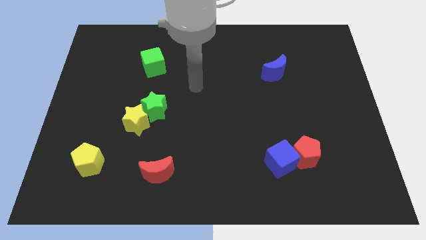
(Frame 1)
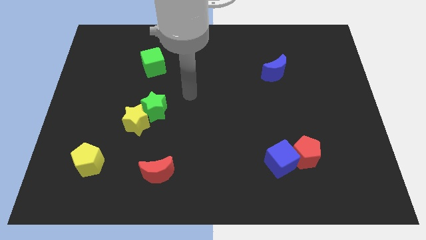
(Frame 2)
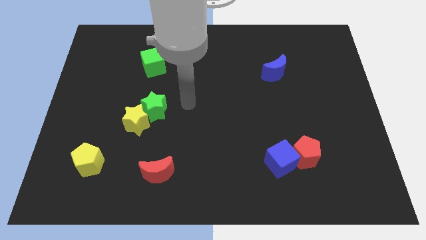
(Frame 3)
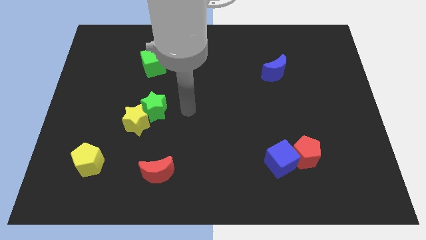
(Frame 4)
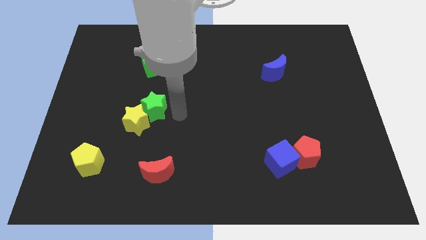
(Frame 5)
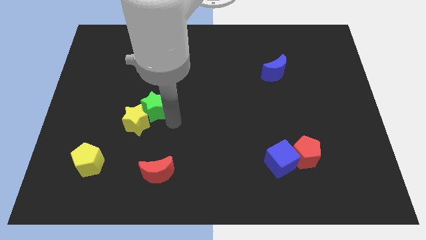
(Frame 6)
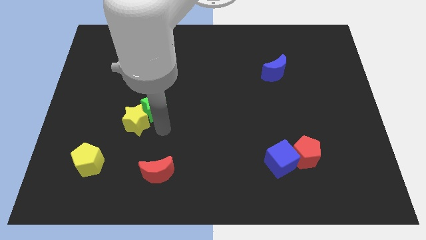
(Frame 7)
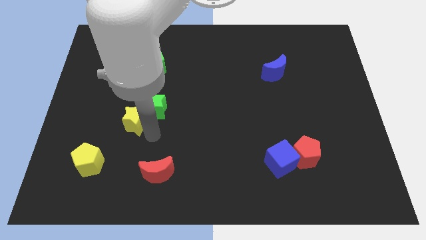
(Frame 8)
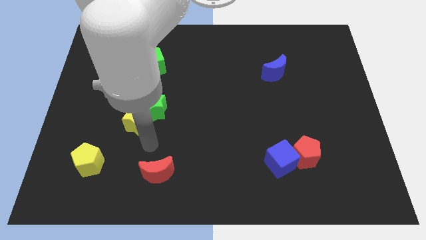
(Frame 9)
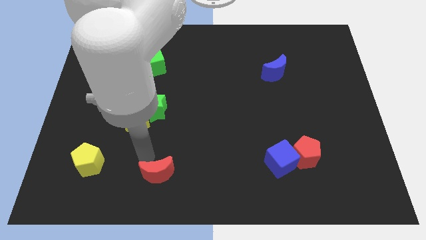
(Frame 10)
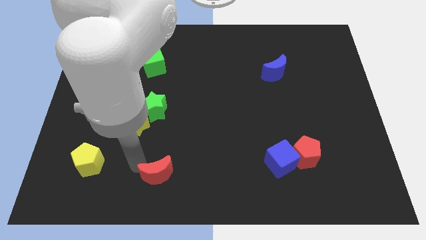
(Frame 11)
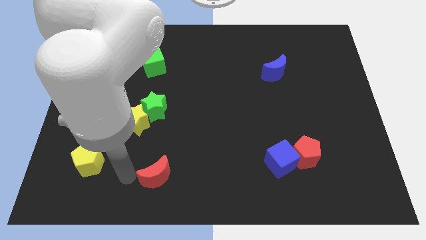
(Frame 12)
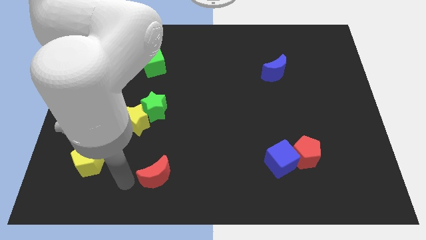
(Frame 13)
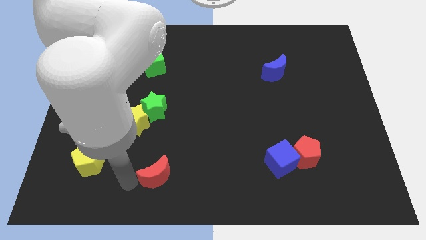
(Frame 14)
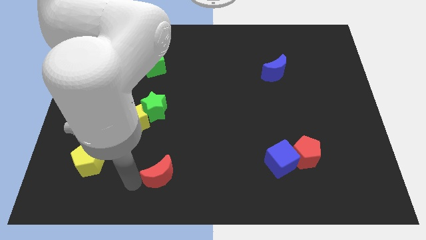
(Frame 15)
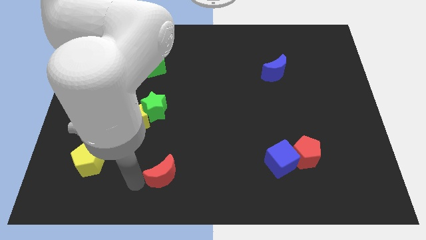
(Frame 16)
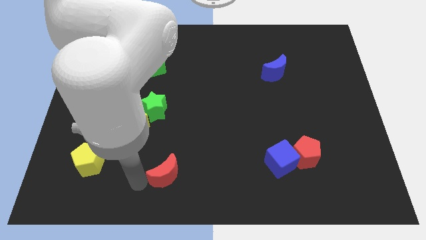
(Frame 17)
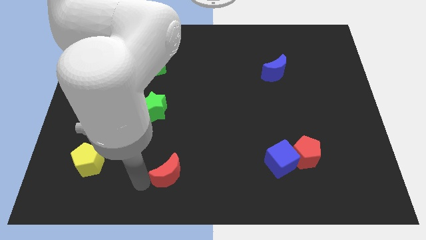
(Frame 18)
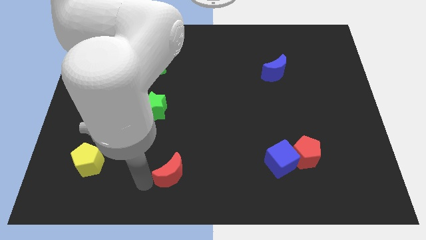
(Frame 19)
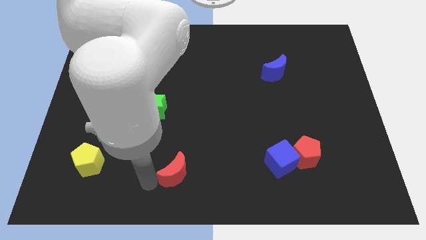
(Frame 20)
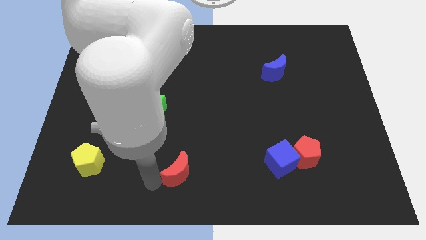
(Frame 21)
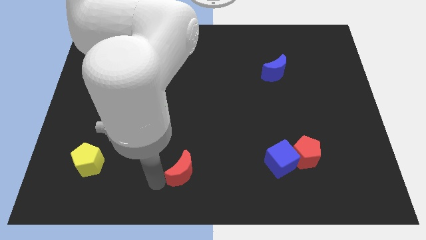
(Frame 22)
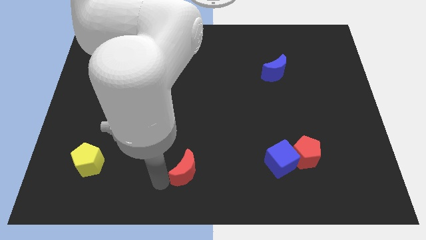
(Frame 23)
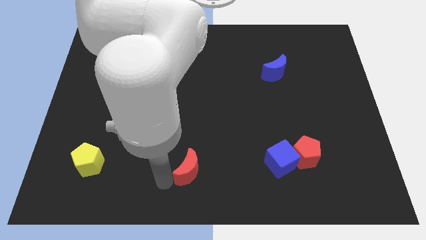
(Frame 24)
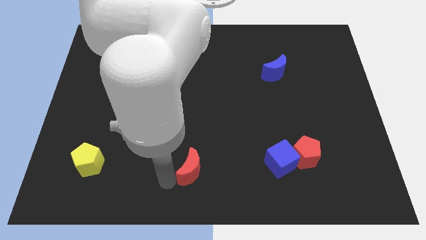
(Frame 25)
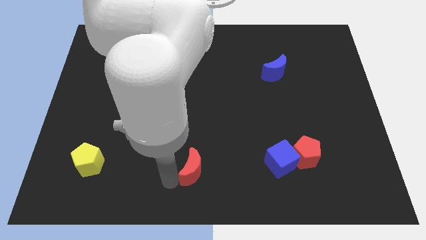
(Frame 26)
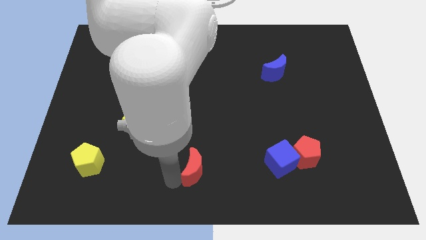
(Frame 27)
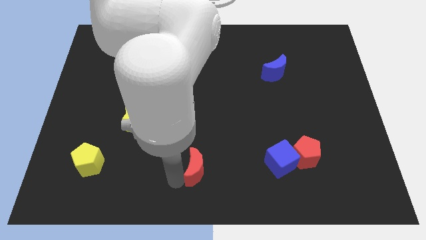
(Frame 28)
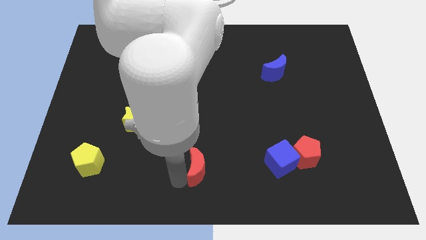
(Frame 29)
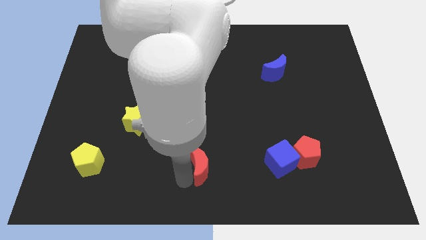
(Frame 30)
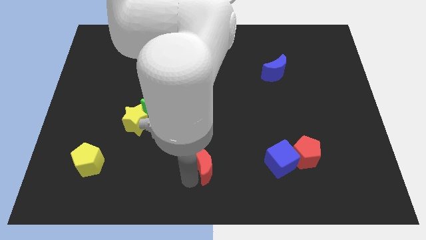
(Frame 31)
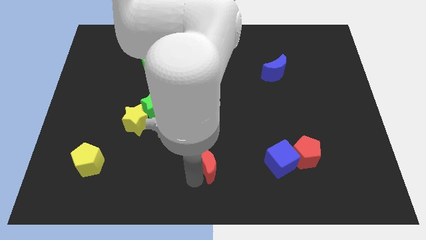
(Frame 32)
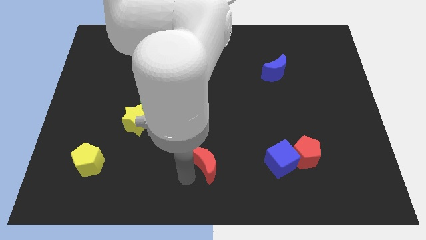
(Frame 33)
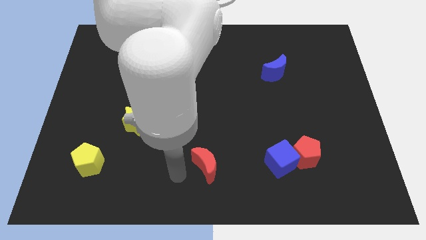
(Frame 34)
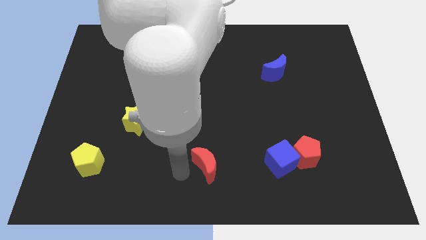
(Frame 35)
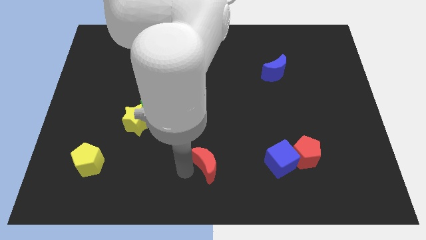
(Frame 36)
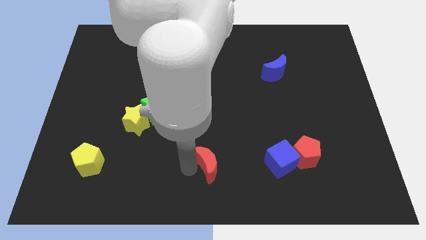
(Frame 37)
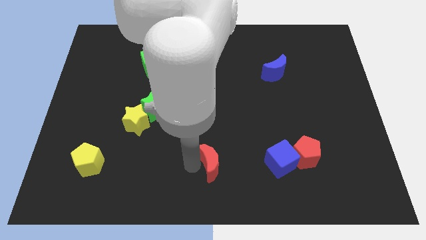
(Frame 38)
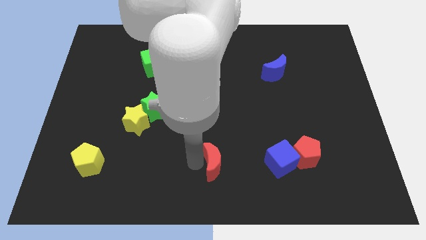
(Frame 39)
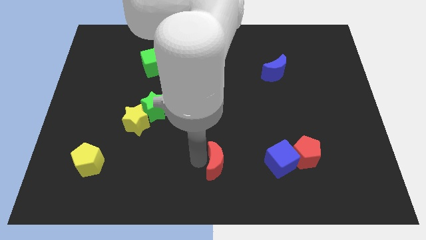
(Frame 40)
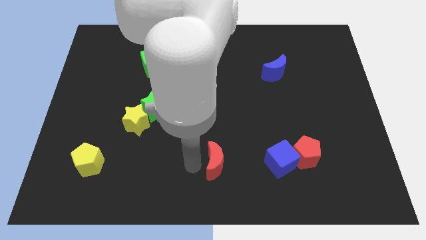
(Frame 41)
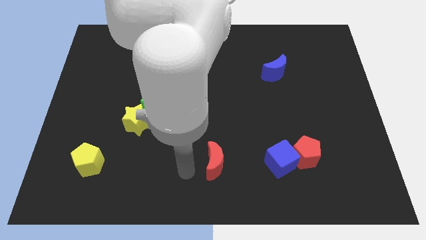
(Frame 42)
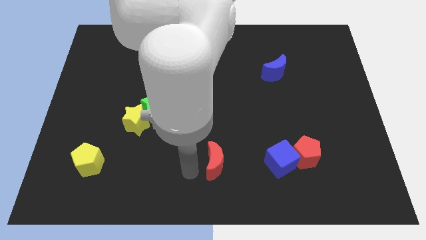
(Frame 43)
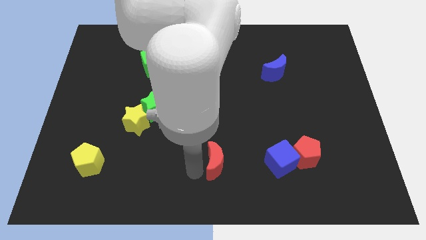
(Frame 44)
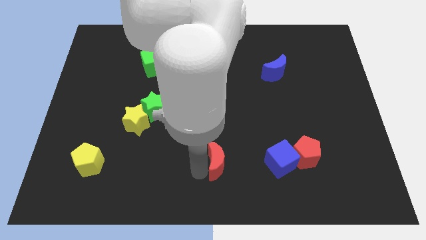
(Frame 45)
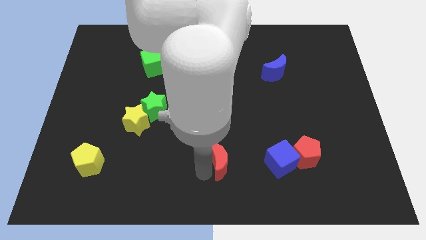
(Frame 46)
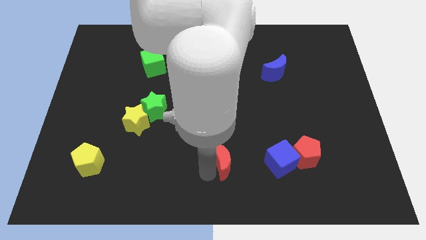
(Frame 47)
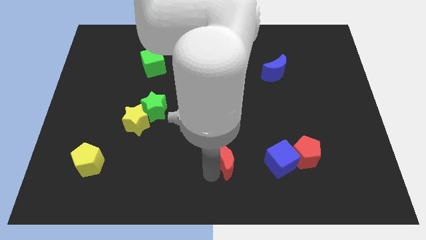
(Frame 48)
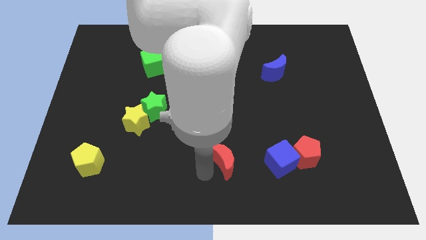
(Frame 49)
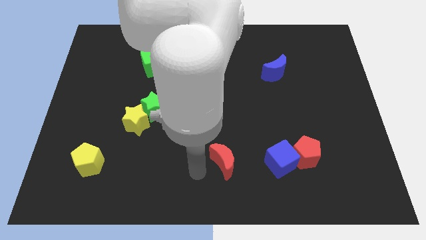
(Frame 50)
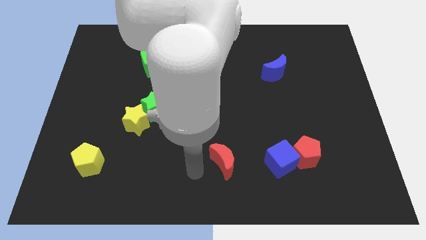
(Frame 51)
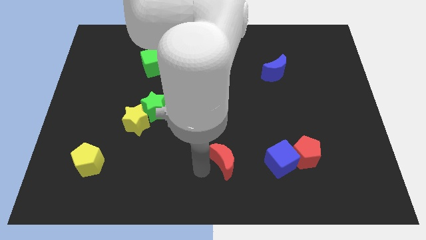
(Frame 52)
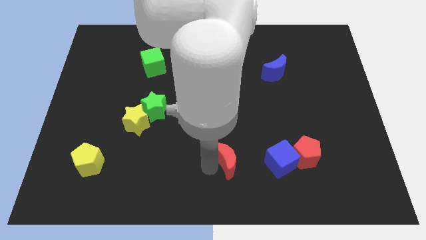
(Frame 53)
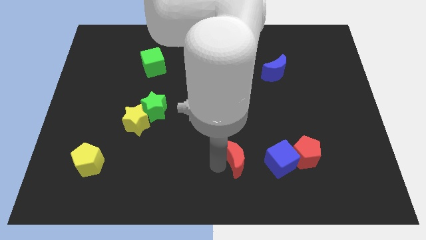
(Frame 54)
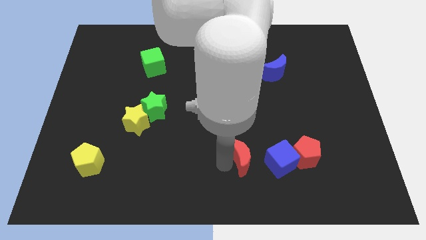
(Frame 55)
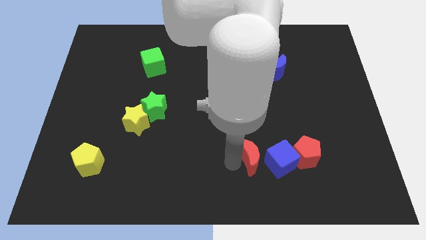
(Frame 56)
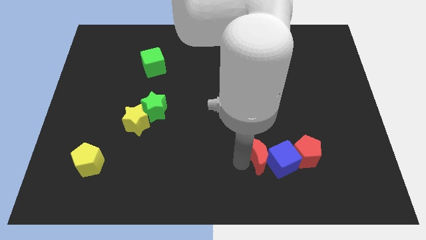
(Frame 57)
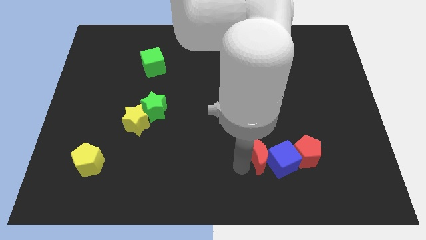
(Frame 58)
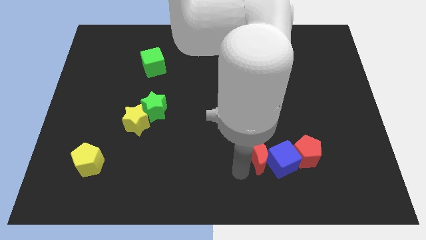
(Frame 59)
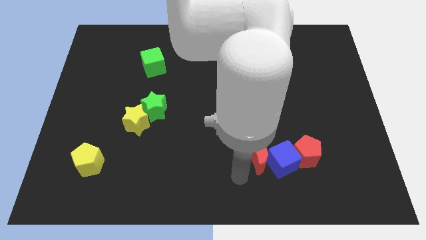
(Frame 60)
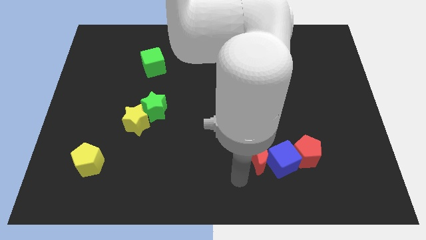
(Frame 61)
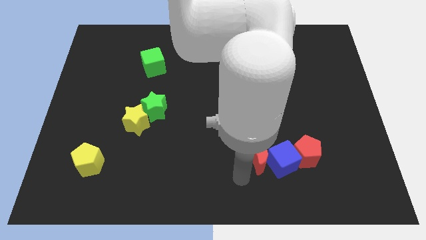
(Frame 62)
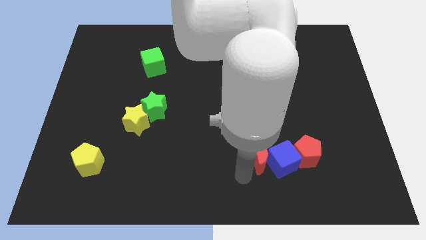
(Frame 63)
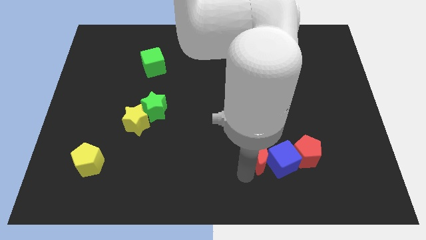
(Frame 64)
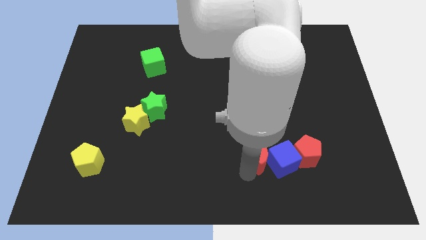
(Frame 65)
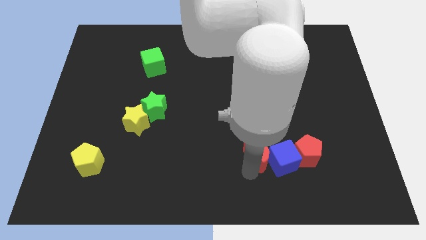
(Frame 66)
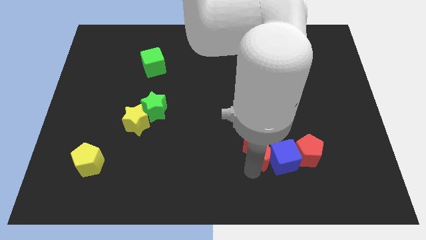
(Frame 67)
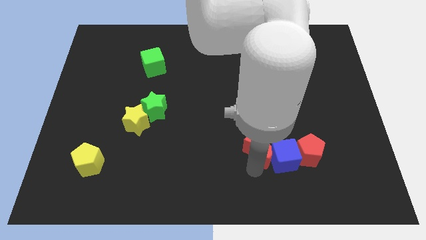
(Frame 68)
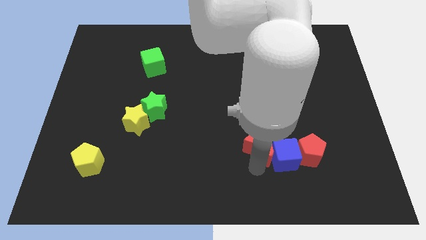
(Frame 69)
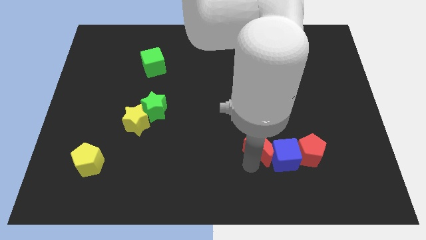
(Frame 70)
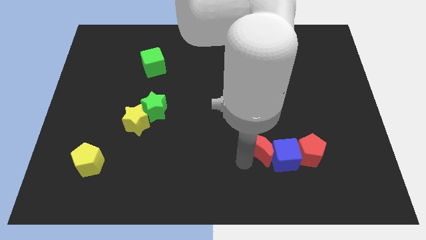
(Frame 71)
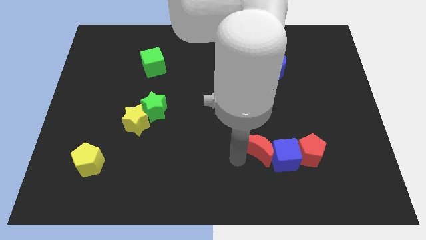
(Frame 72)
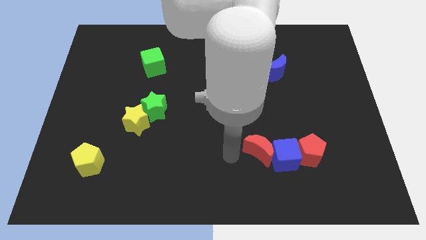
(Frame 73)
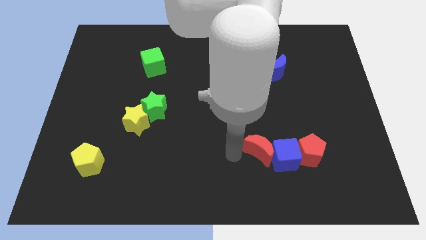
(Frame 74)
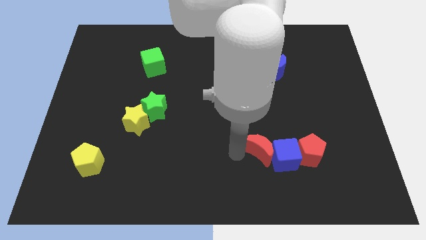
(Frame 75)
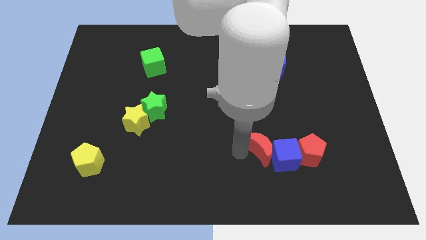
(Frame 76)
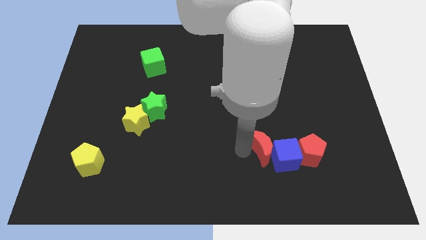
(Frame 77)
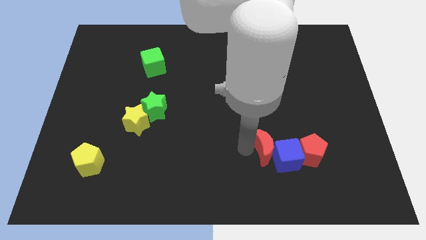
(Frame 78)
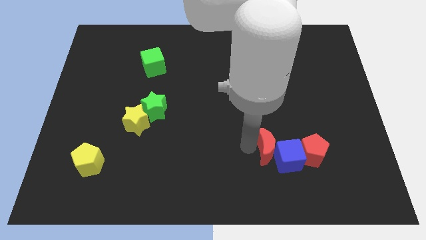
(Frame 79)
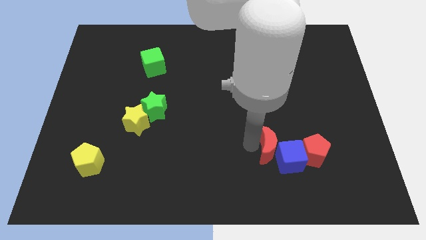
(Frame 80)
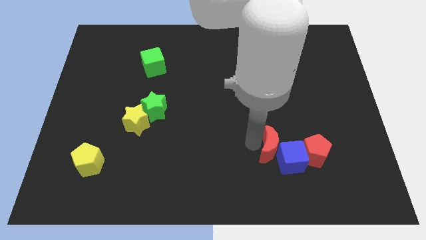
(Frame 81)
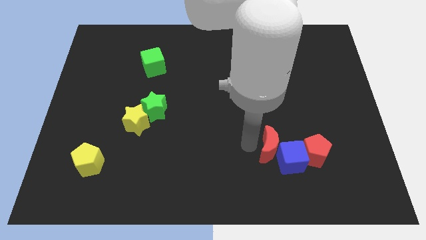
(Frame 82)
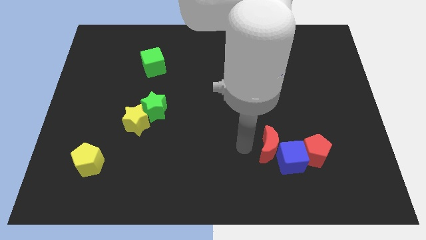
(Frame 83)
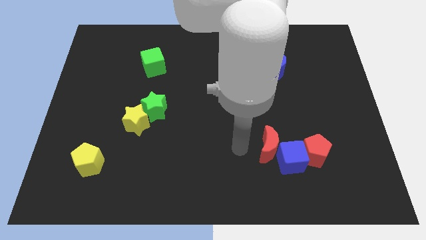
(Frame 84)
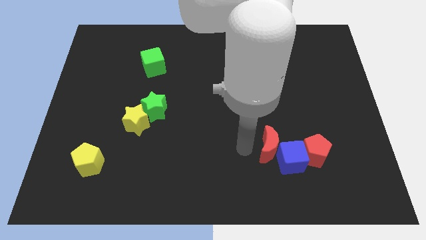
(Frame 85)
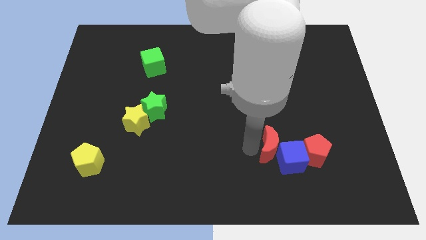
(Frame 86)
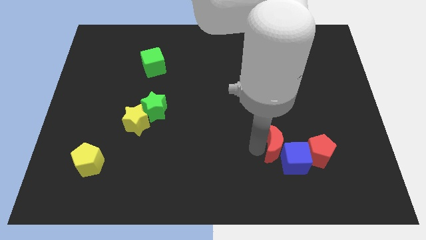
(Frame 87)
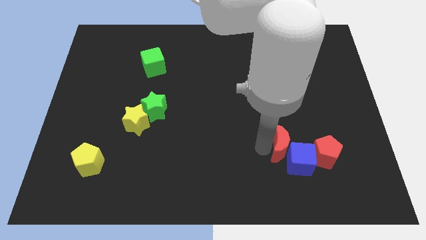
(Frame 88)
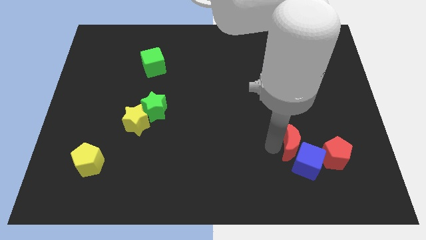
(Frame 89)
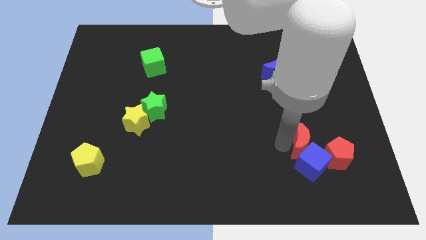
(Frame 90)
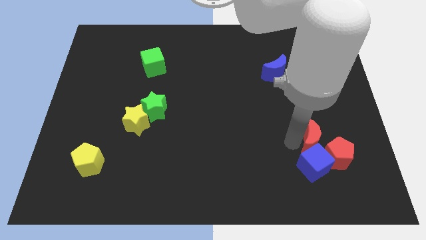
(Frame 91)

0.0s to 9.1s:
push the red moon to the red pentagon
